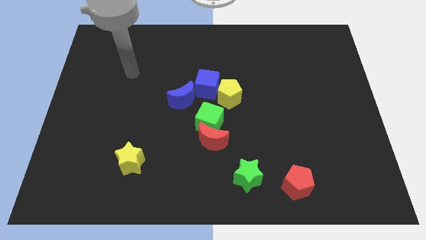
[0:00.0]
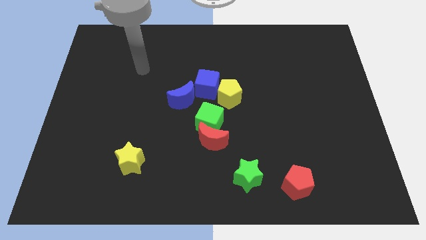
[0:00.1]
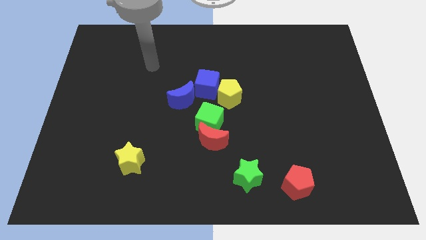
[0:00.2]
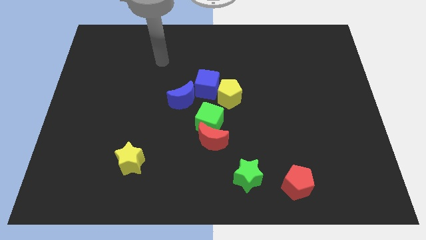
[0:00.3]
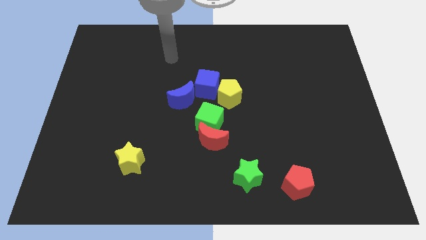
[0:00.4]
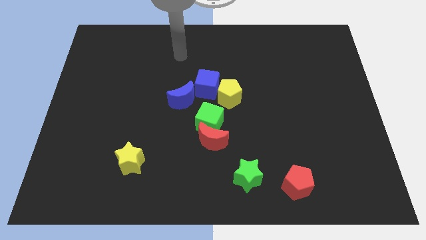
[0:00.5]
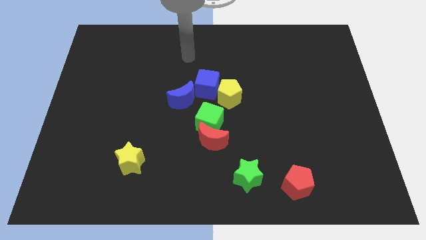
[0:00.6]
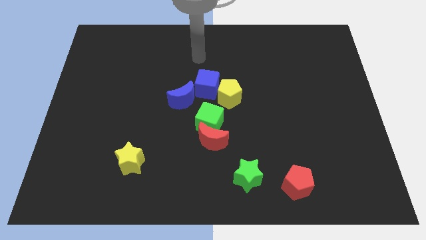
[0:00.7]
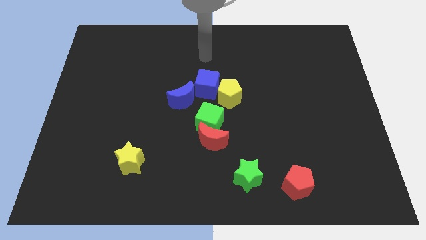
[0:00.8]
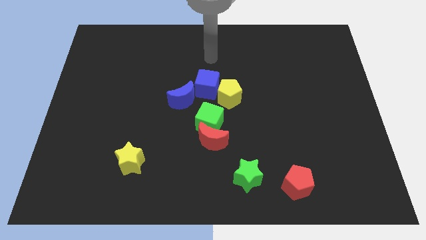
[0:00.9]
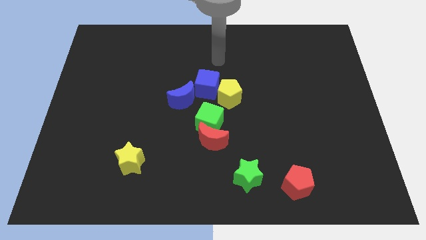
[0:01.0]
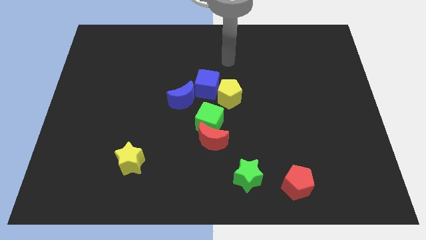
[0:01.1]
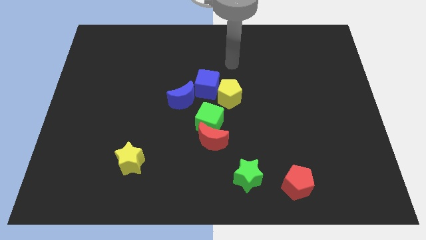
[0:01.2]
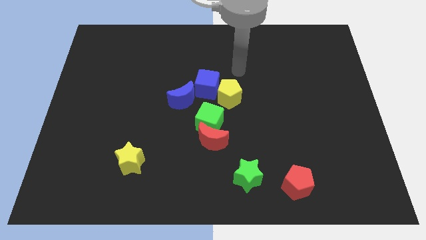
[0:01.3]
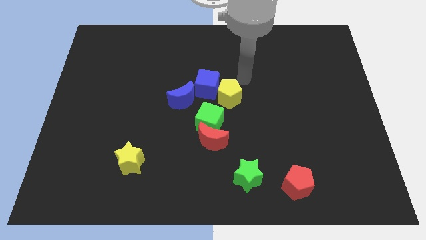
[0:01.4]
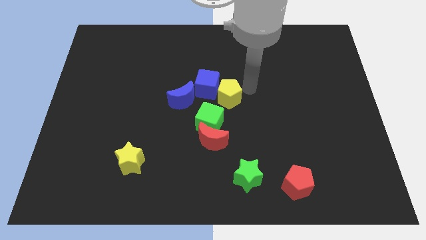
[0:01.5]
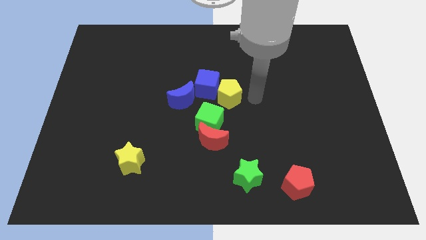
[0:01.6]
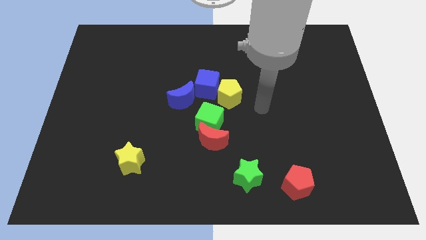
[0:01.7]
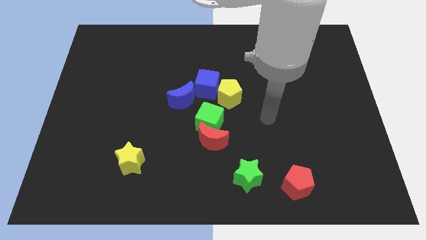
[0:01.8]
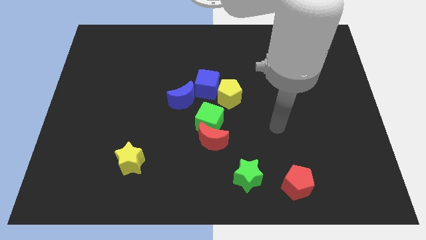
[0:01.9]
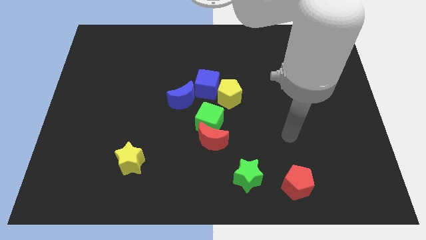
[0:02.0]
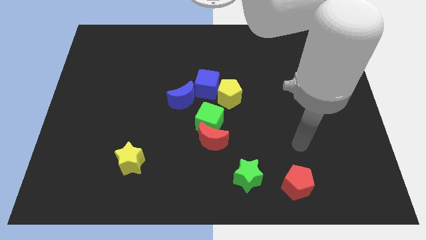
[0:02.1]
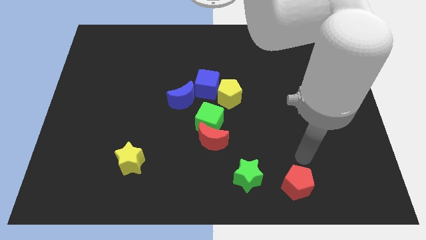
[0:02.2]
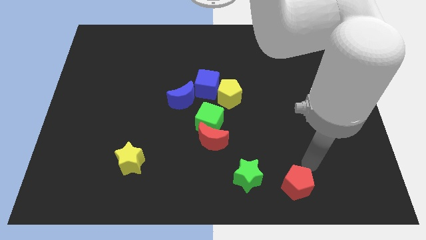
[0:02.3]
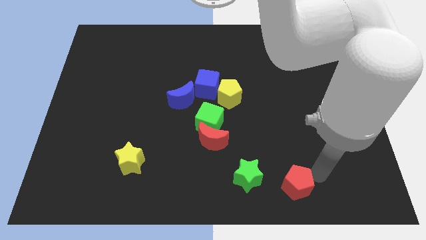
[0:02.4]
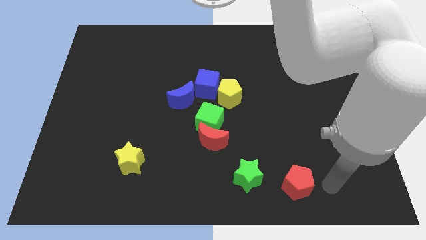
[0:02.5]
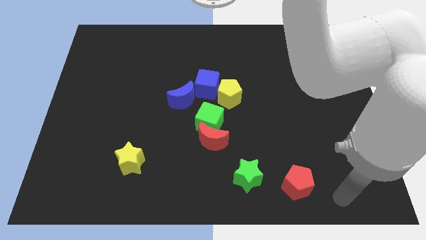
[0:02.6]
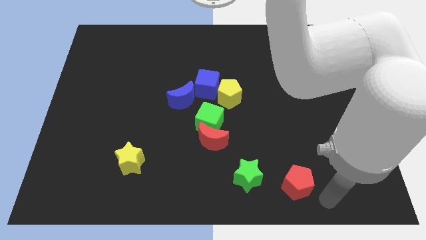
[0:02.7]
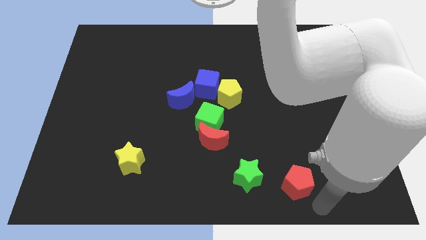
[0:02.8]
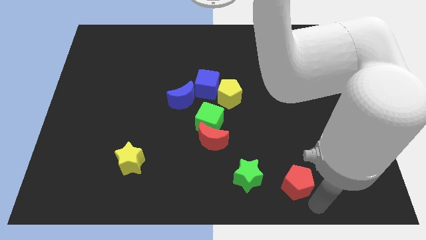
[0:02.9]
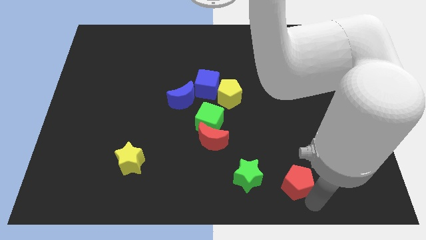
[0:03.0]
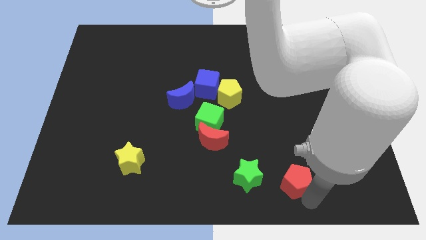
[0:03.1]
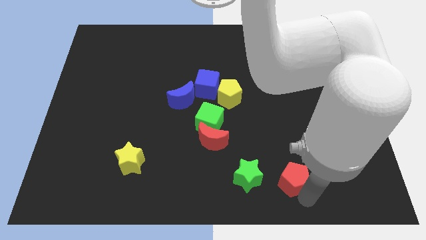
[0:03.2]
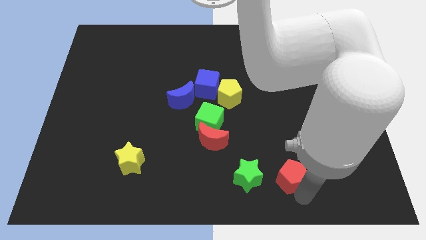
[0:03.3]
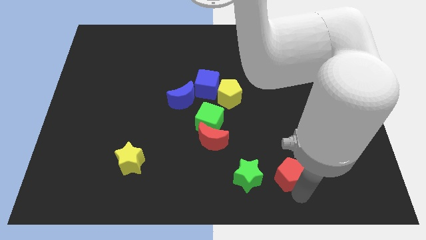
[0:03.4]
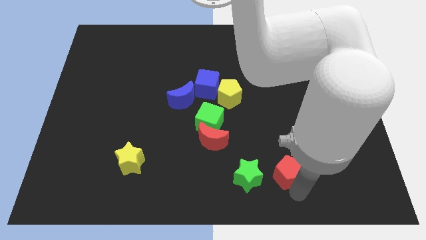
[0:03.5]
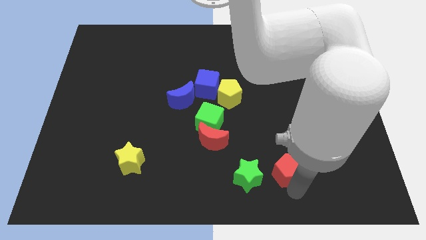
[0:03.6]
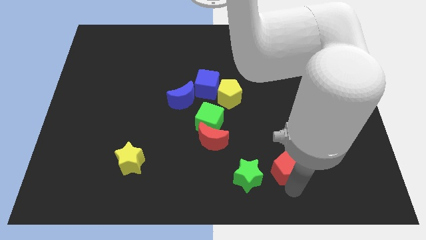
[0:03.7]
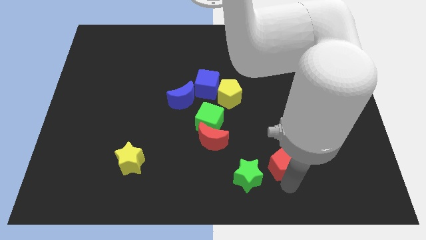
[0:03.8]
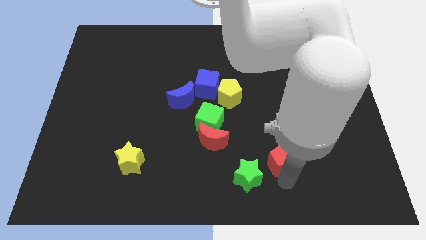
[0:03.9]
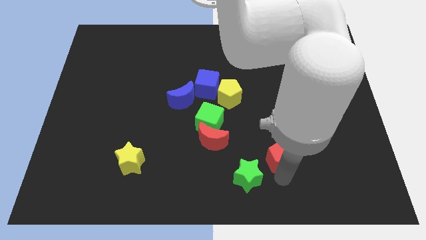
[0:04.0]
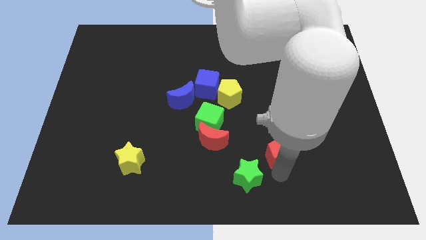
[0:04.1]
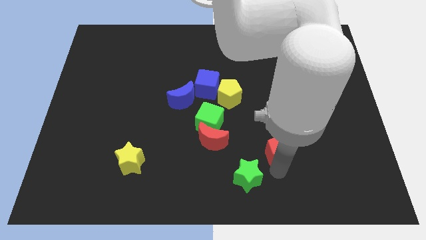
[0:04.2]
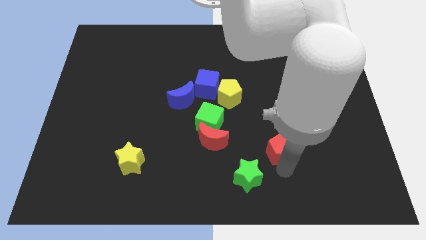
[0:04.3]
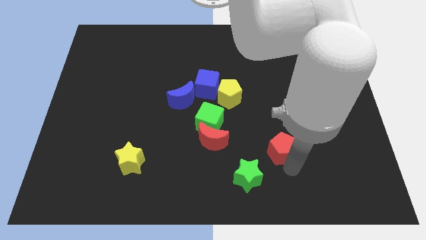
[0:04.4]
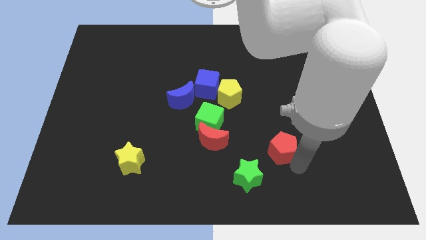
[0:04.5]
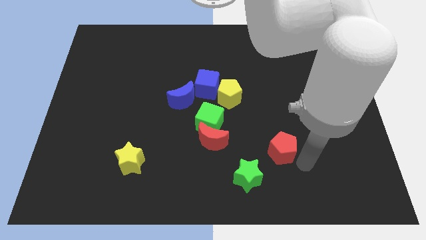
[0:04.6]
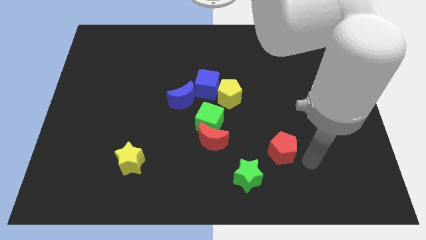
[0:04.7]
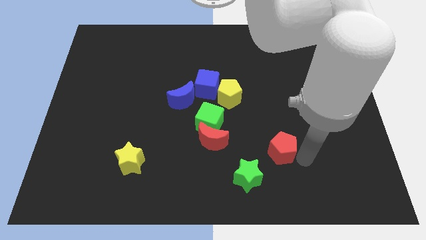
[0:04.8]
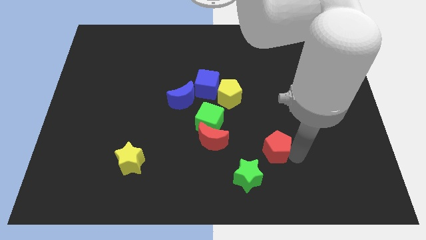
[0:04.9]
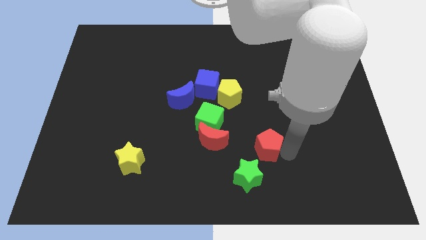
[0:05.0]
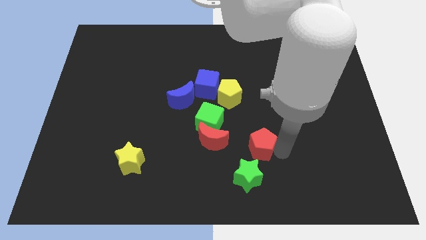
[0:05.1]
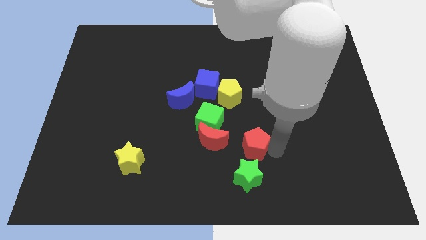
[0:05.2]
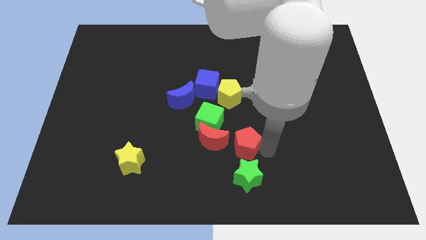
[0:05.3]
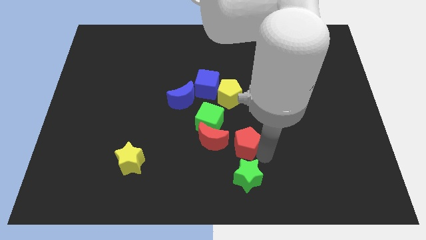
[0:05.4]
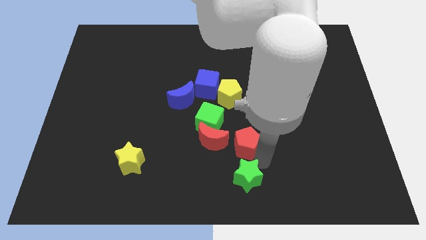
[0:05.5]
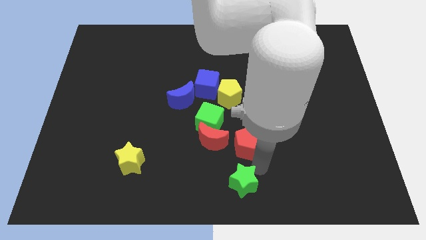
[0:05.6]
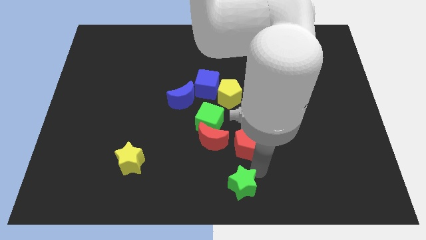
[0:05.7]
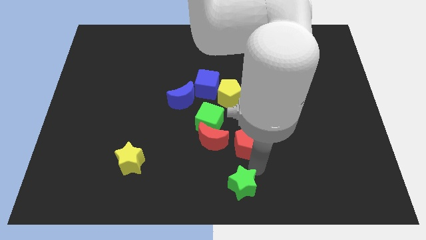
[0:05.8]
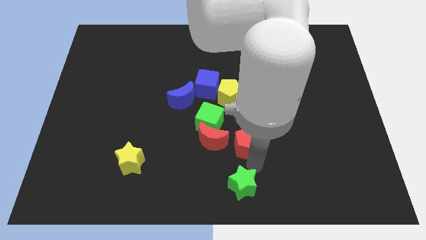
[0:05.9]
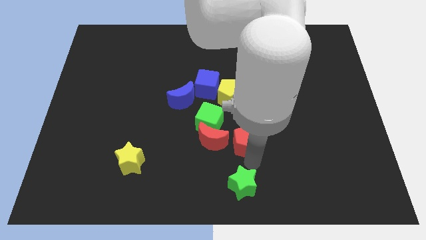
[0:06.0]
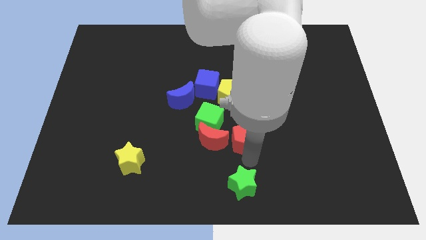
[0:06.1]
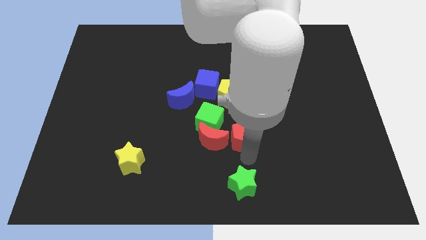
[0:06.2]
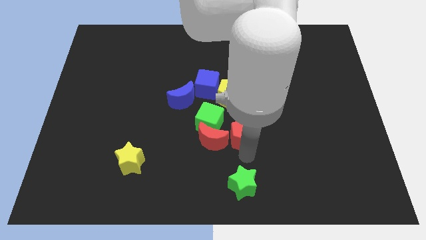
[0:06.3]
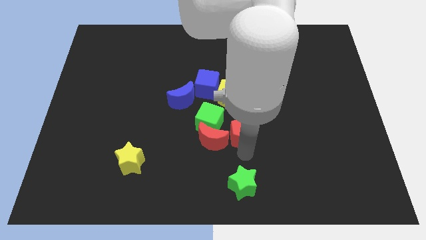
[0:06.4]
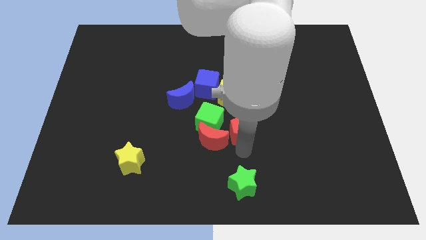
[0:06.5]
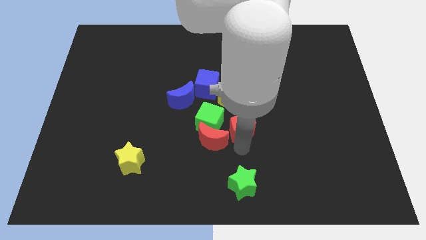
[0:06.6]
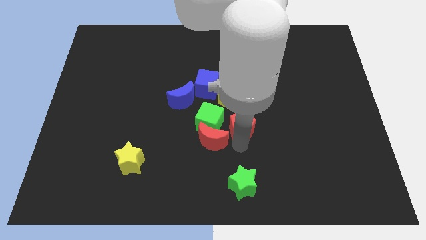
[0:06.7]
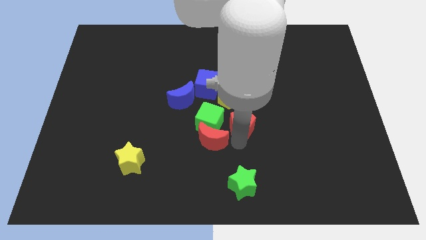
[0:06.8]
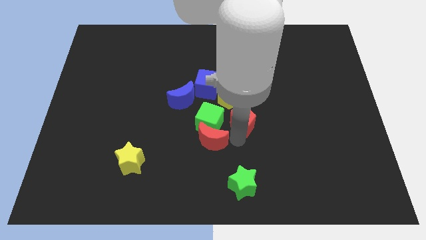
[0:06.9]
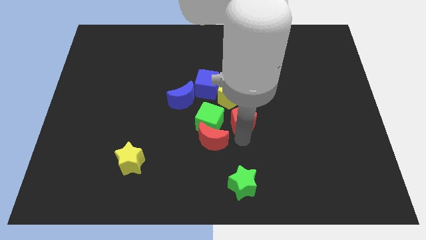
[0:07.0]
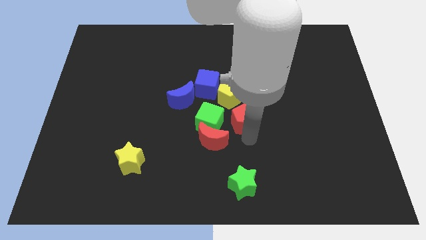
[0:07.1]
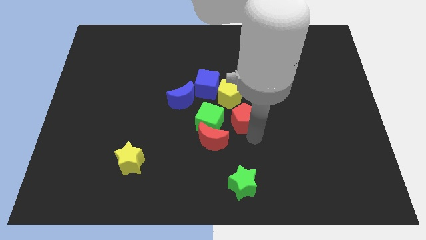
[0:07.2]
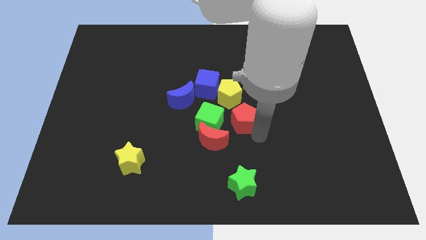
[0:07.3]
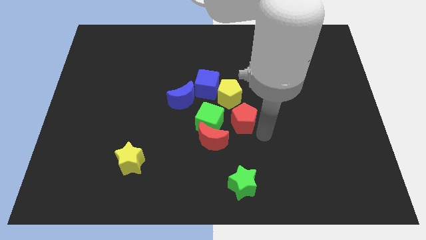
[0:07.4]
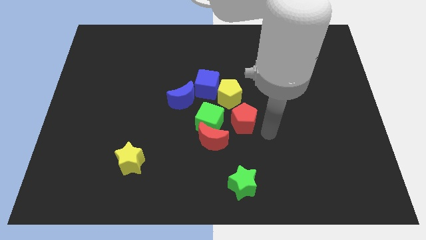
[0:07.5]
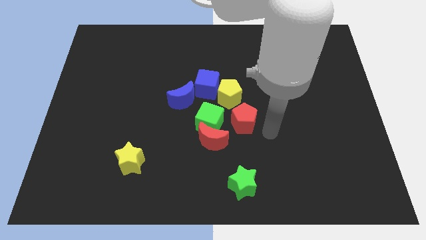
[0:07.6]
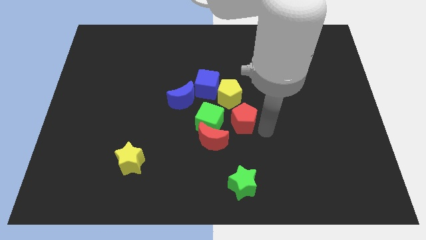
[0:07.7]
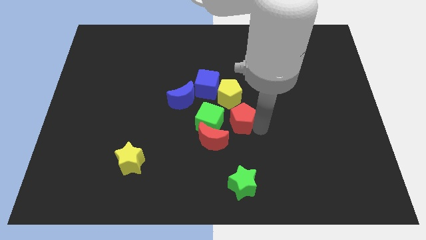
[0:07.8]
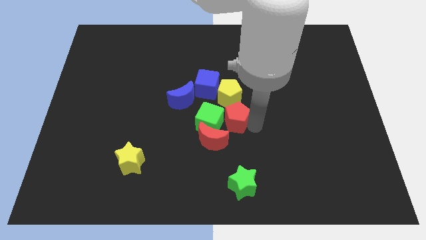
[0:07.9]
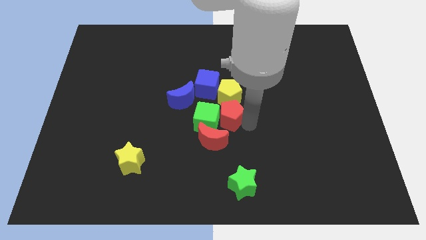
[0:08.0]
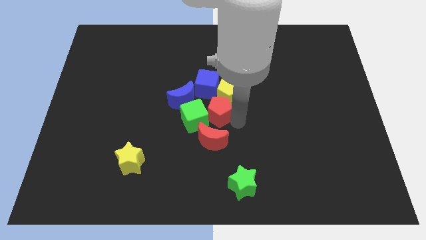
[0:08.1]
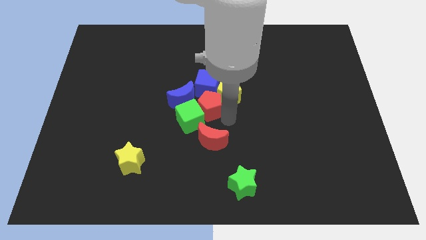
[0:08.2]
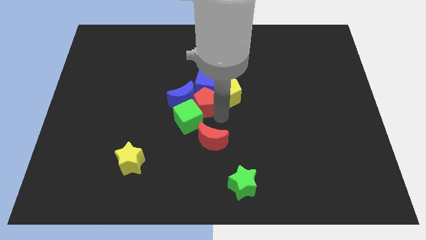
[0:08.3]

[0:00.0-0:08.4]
push the red pentagon to the blue cube
